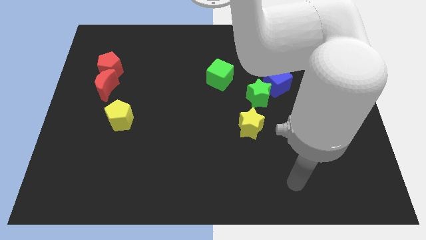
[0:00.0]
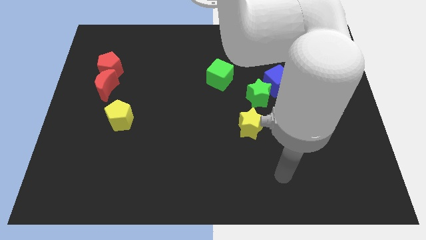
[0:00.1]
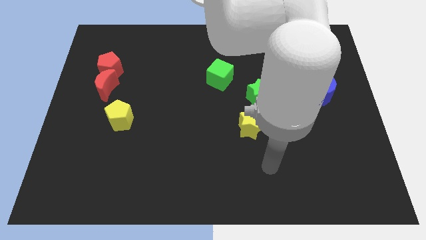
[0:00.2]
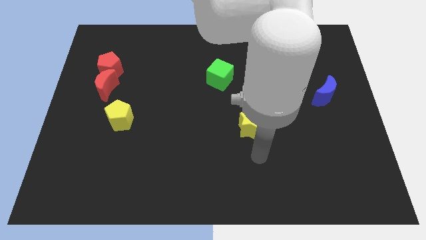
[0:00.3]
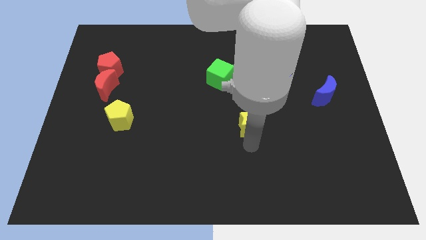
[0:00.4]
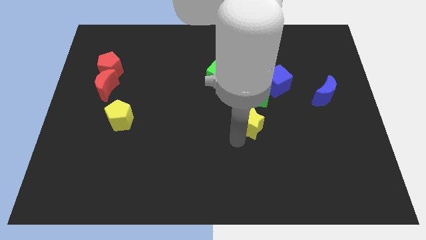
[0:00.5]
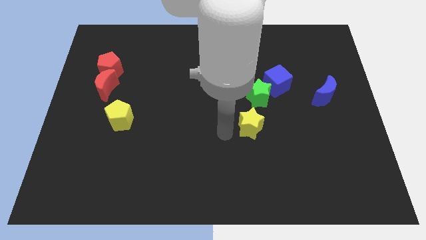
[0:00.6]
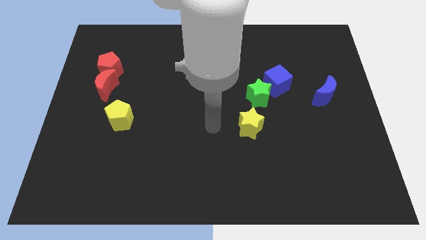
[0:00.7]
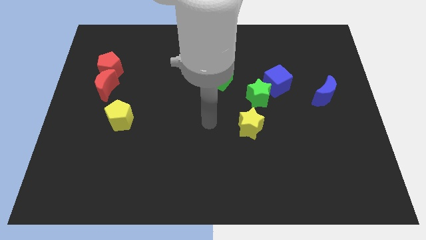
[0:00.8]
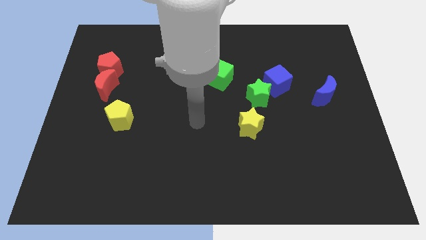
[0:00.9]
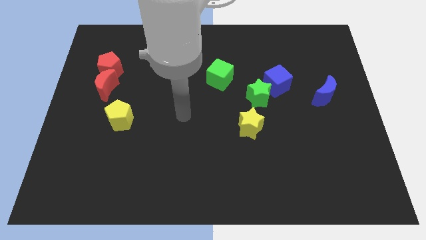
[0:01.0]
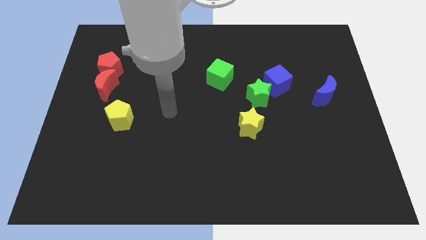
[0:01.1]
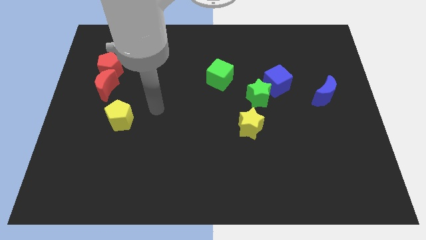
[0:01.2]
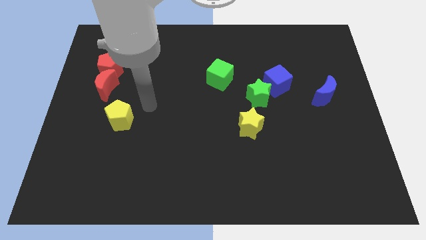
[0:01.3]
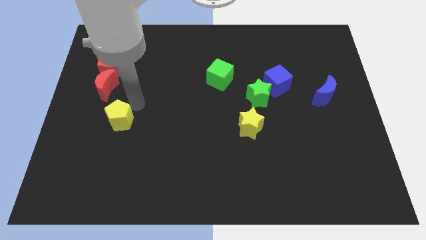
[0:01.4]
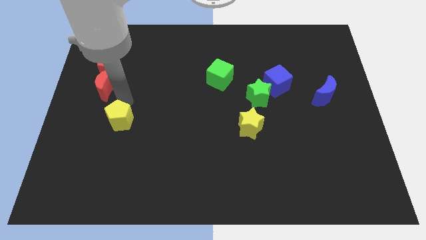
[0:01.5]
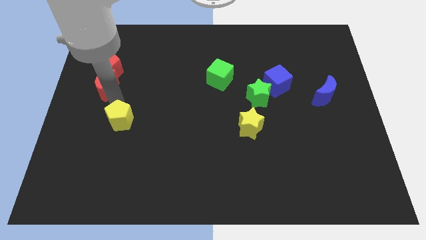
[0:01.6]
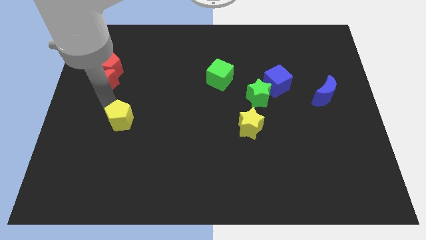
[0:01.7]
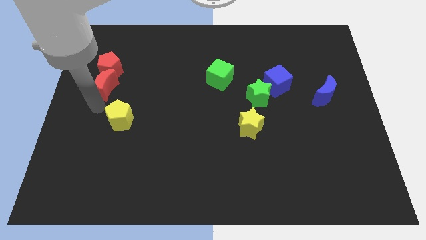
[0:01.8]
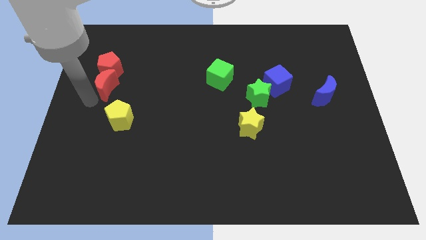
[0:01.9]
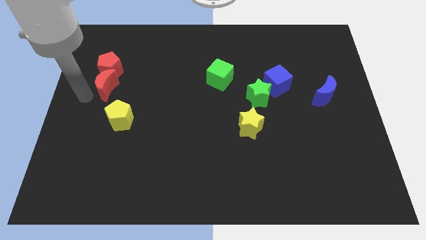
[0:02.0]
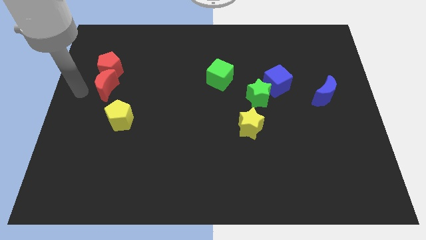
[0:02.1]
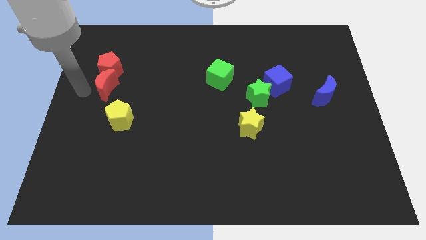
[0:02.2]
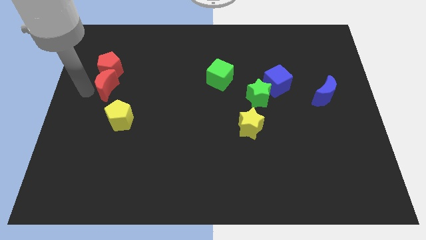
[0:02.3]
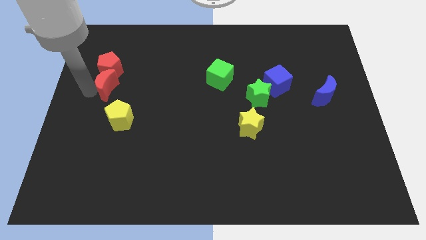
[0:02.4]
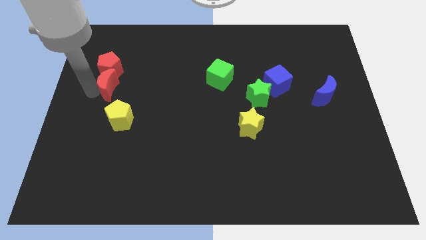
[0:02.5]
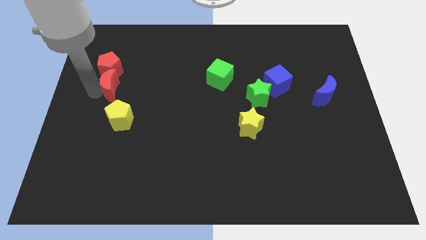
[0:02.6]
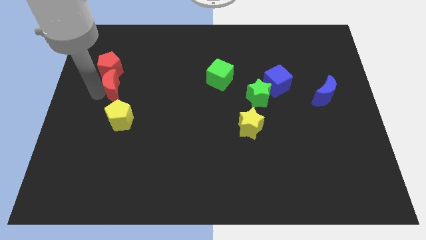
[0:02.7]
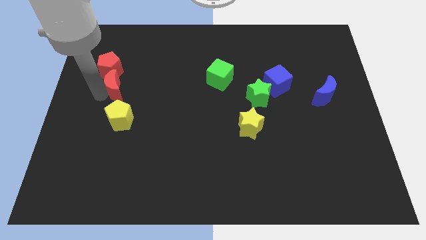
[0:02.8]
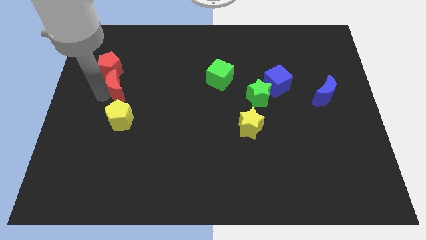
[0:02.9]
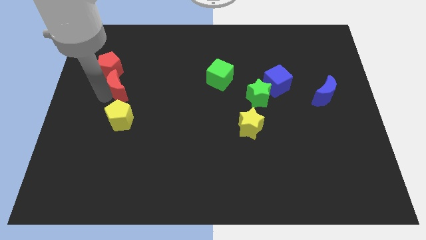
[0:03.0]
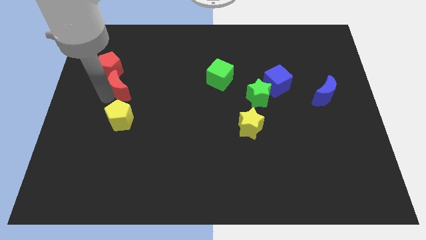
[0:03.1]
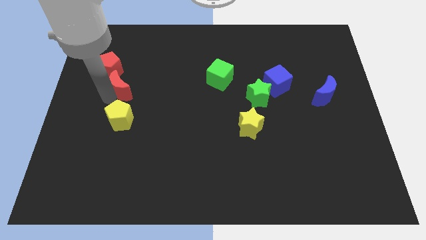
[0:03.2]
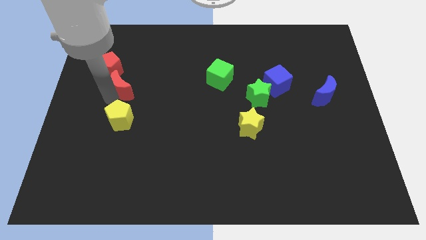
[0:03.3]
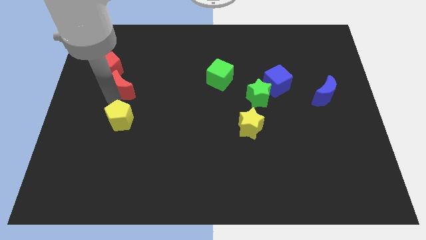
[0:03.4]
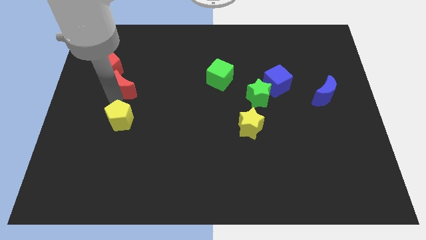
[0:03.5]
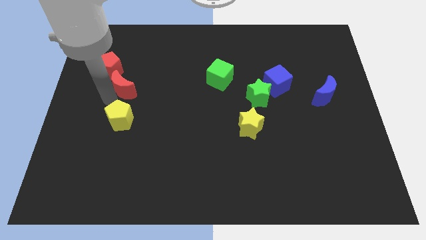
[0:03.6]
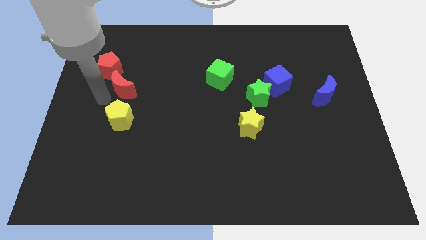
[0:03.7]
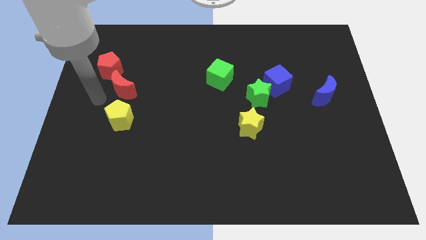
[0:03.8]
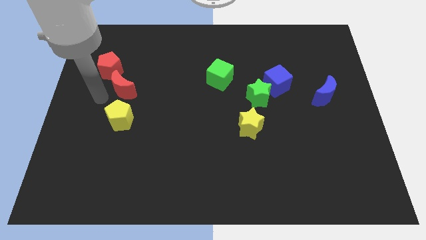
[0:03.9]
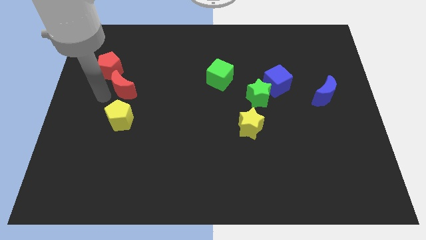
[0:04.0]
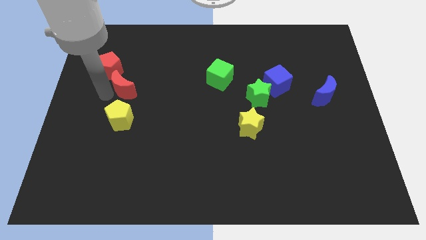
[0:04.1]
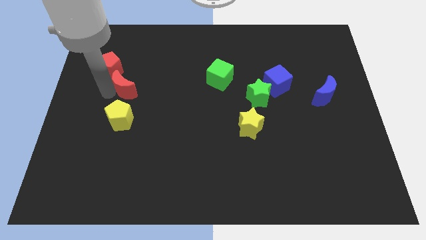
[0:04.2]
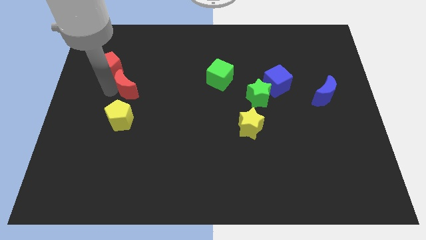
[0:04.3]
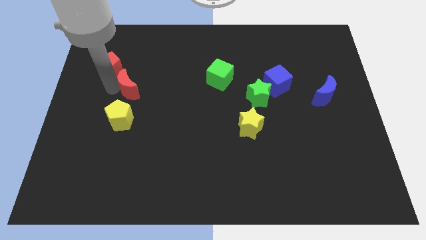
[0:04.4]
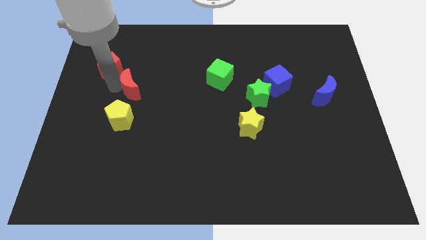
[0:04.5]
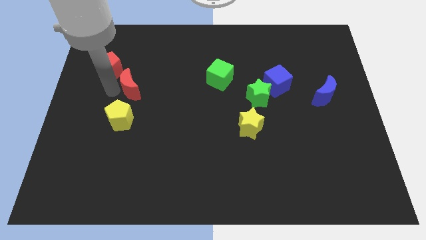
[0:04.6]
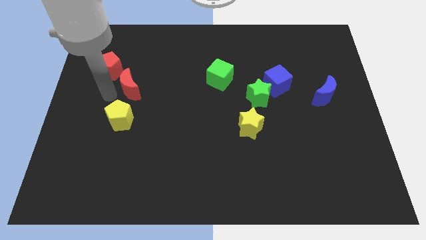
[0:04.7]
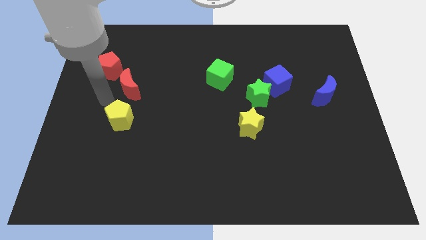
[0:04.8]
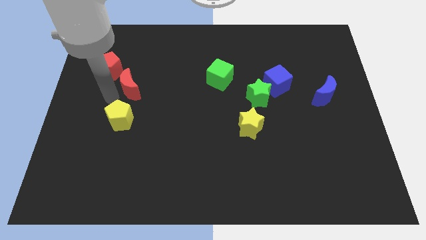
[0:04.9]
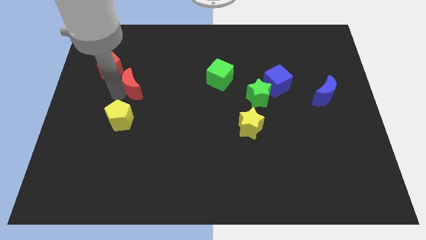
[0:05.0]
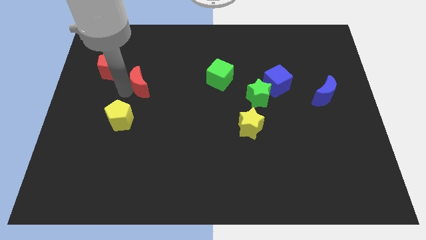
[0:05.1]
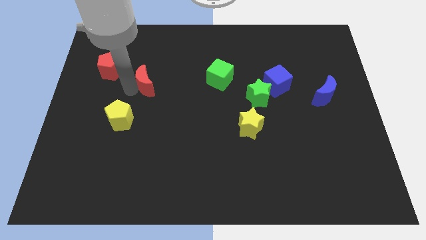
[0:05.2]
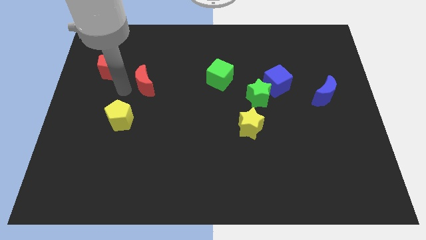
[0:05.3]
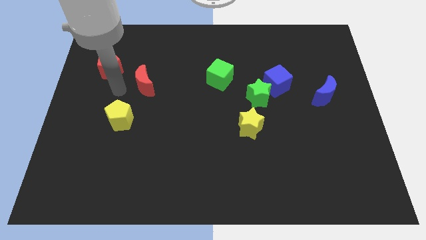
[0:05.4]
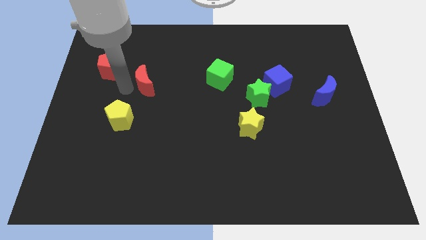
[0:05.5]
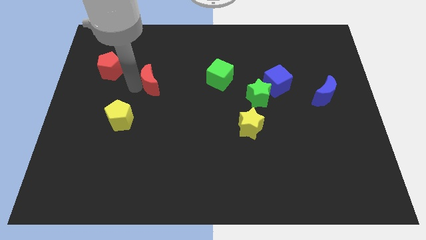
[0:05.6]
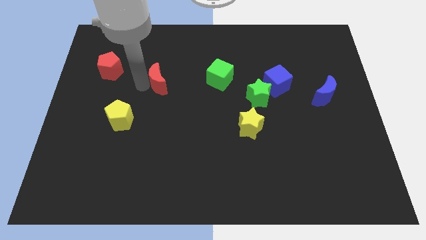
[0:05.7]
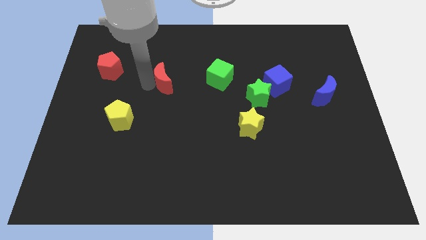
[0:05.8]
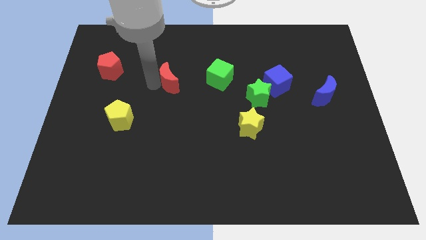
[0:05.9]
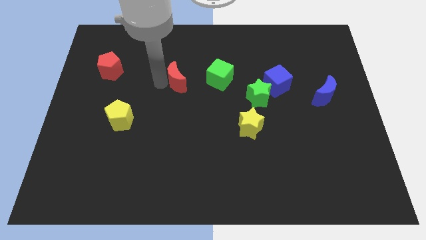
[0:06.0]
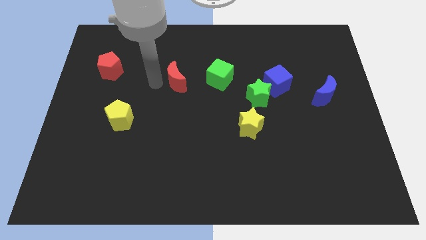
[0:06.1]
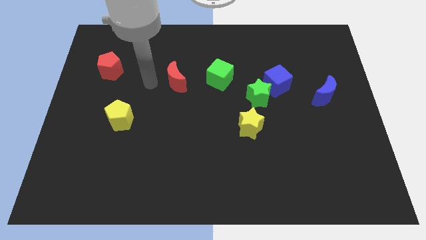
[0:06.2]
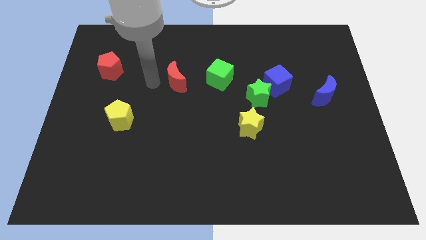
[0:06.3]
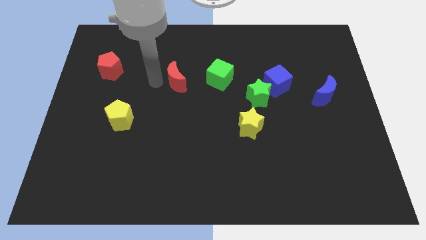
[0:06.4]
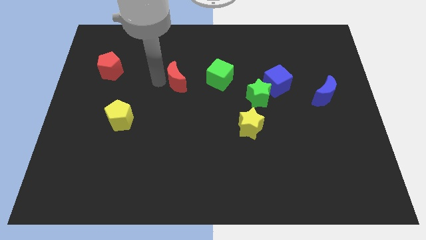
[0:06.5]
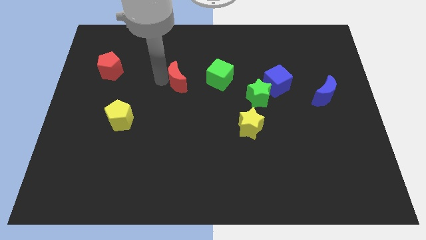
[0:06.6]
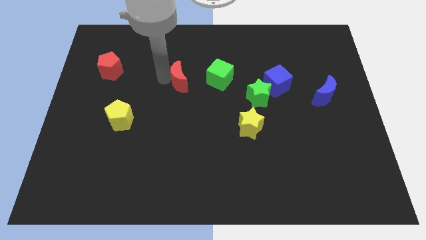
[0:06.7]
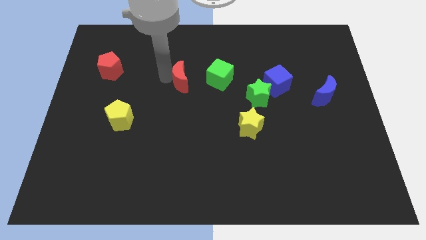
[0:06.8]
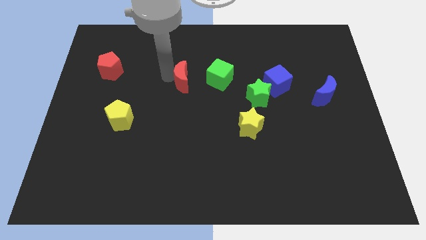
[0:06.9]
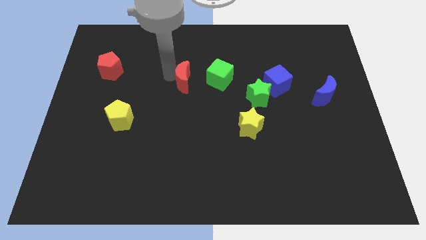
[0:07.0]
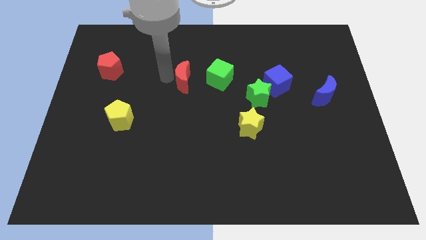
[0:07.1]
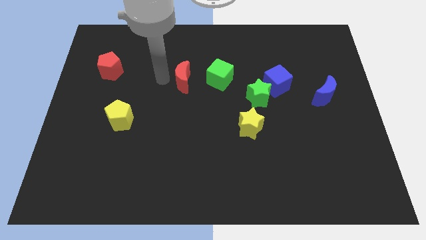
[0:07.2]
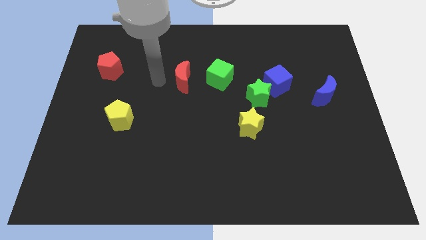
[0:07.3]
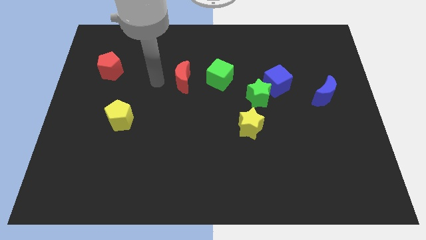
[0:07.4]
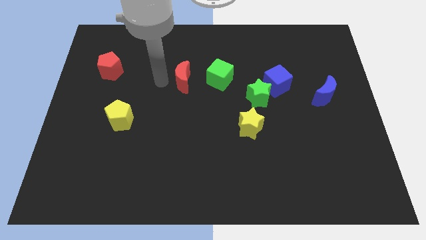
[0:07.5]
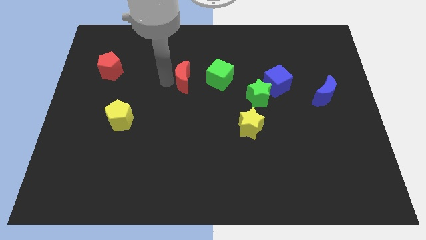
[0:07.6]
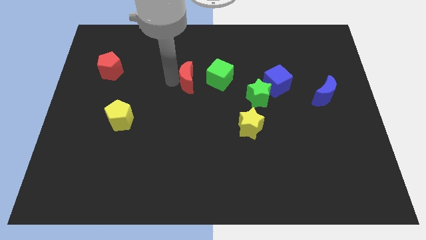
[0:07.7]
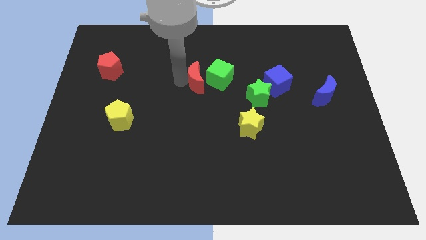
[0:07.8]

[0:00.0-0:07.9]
push the red moon to the green cube
